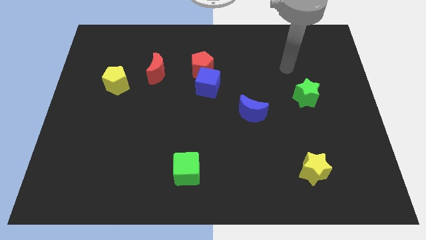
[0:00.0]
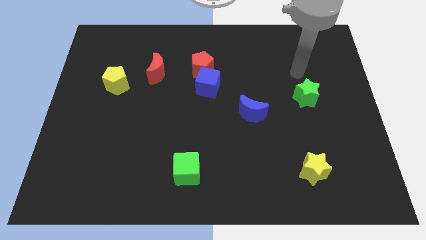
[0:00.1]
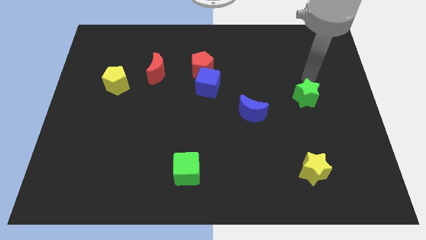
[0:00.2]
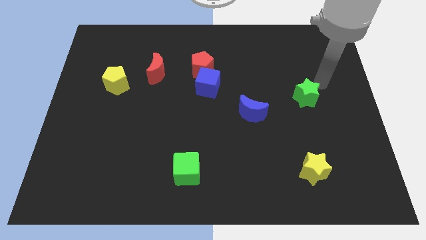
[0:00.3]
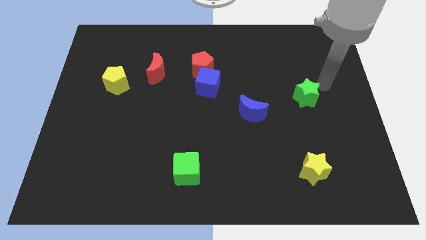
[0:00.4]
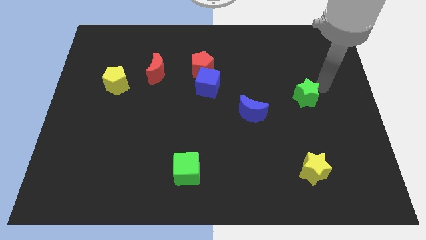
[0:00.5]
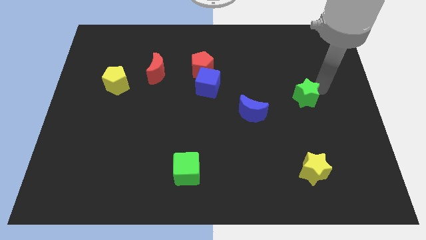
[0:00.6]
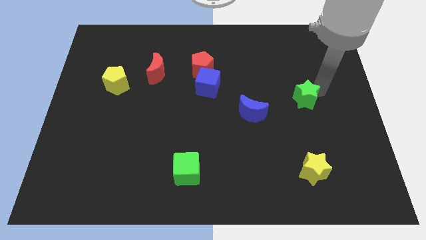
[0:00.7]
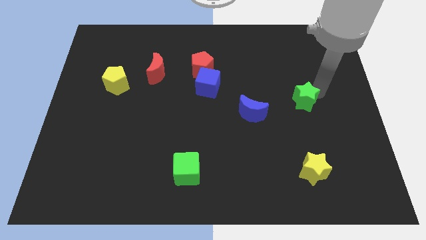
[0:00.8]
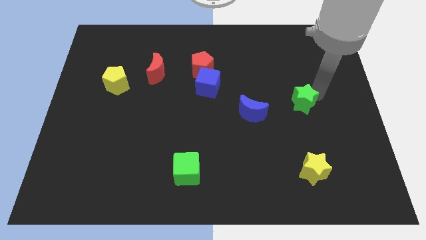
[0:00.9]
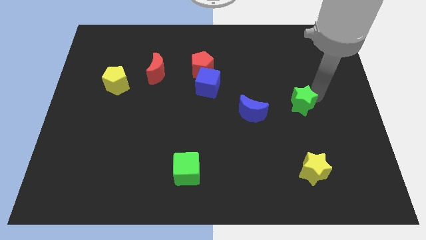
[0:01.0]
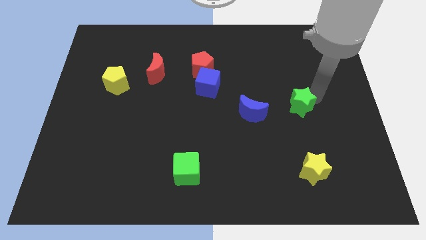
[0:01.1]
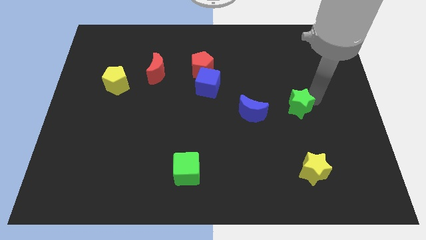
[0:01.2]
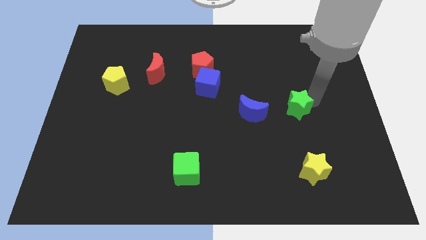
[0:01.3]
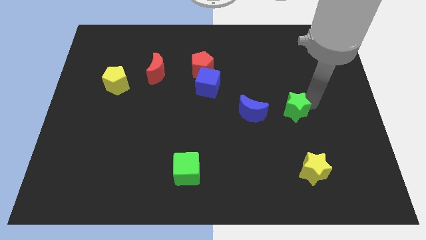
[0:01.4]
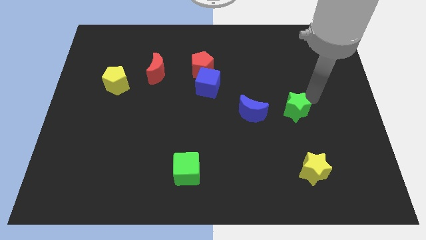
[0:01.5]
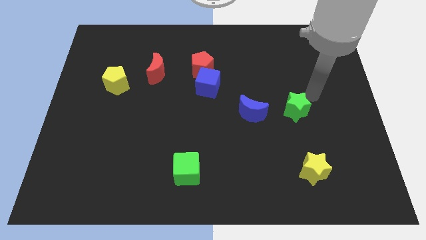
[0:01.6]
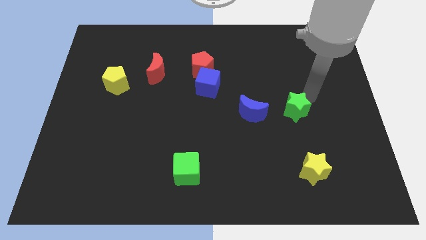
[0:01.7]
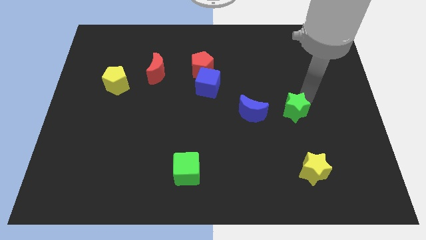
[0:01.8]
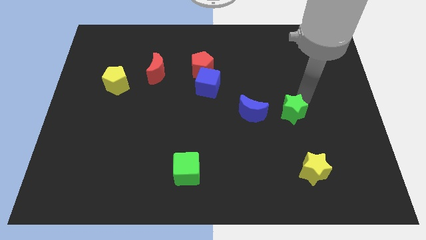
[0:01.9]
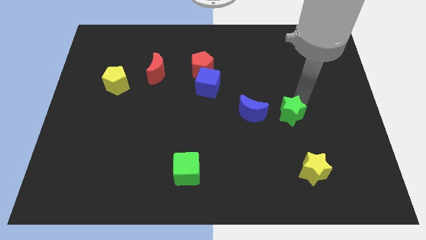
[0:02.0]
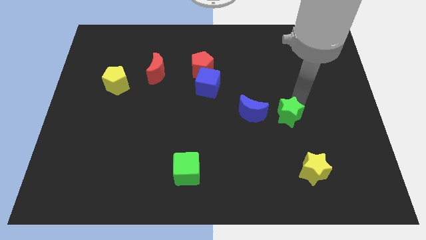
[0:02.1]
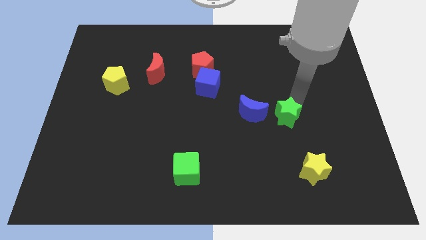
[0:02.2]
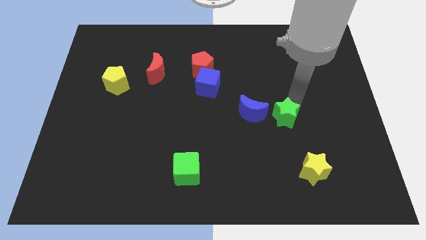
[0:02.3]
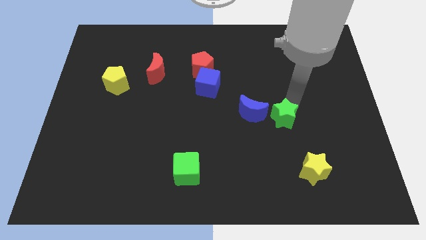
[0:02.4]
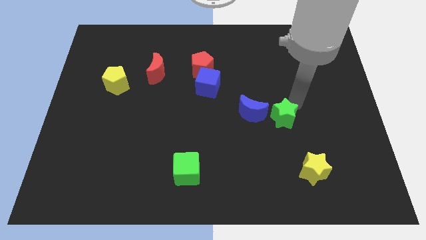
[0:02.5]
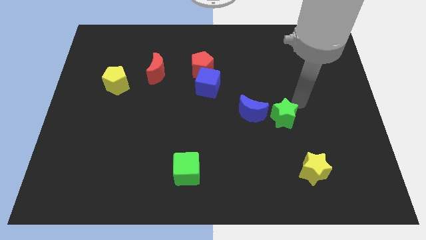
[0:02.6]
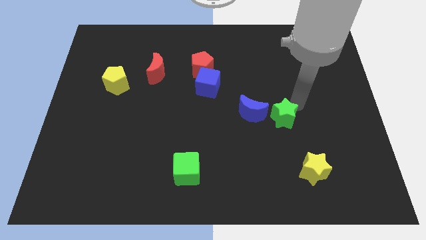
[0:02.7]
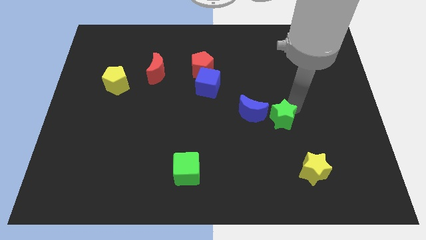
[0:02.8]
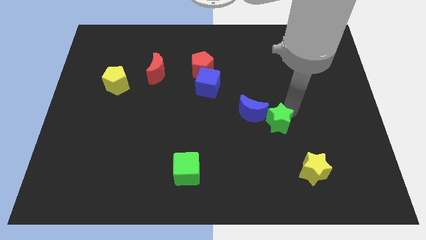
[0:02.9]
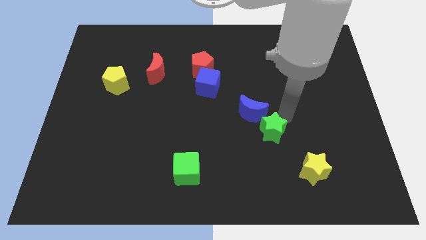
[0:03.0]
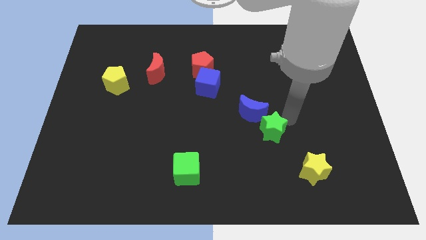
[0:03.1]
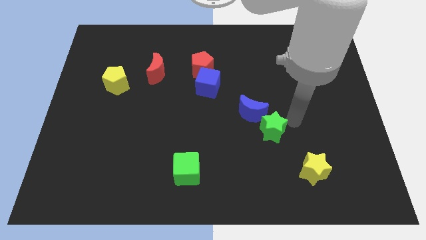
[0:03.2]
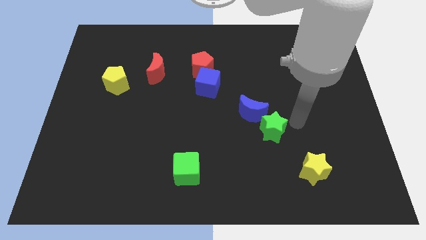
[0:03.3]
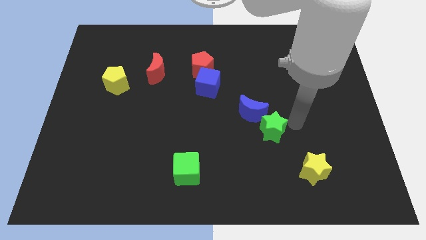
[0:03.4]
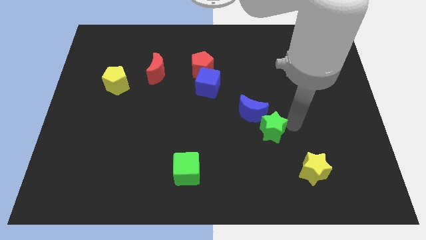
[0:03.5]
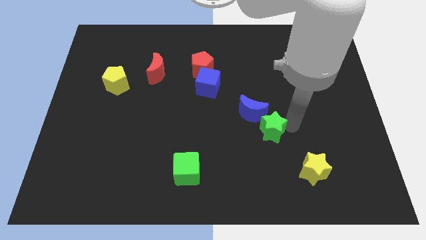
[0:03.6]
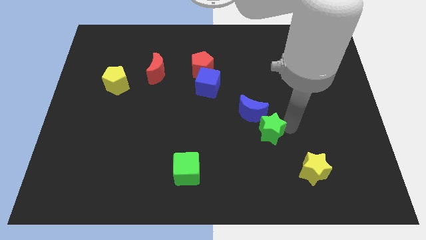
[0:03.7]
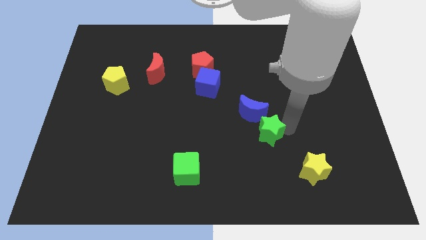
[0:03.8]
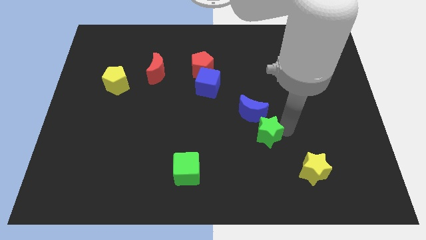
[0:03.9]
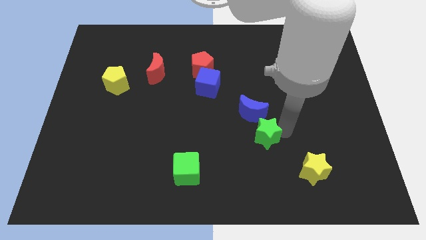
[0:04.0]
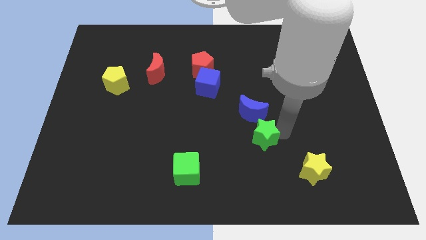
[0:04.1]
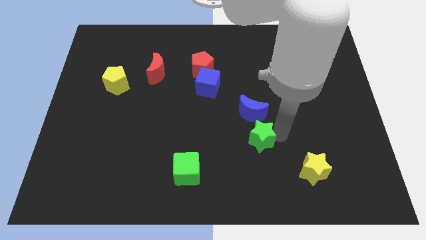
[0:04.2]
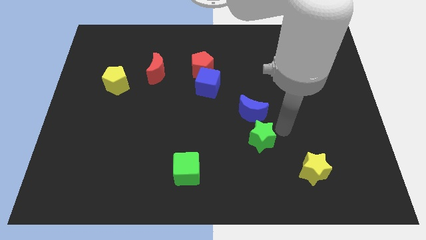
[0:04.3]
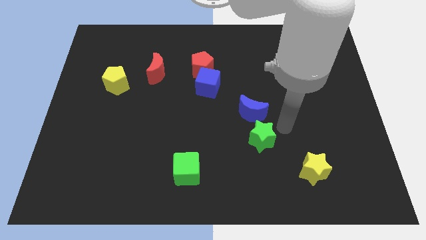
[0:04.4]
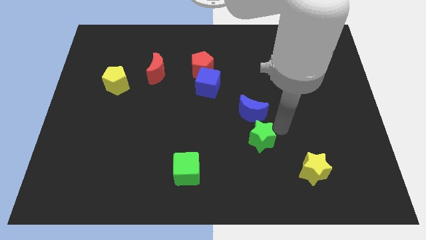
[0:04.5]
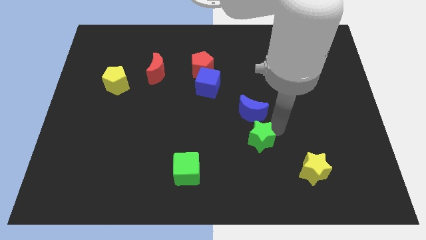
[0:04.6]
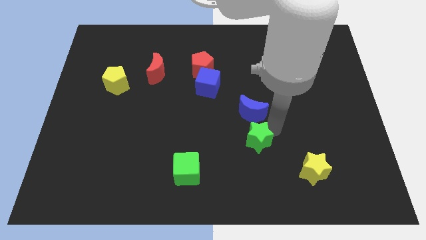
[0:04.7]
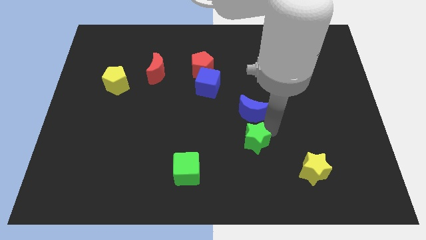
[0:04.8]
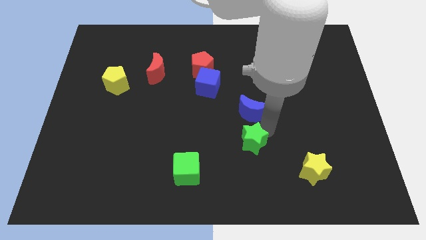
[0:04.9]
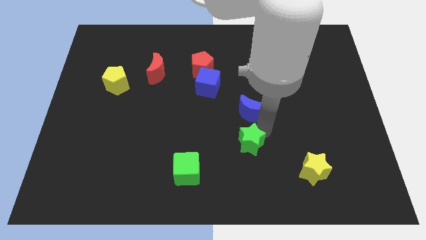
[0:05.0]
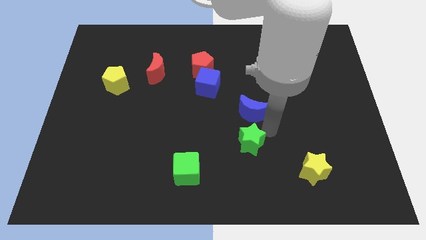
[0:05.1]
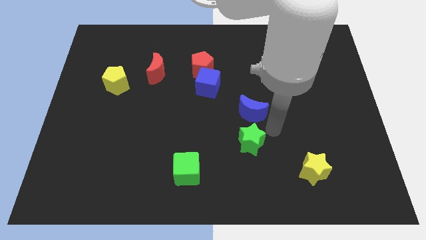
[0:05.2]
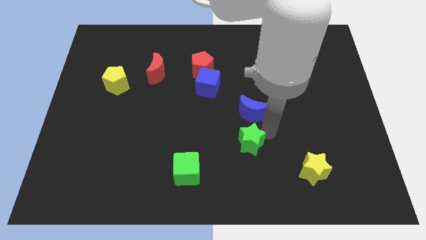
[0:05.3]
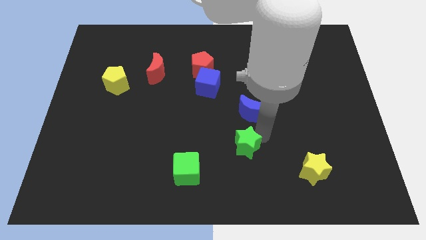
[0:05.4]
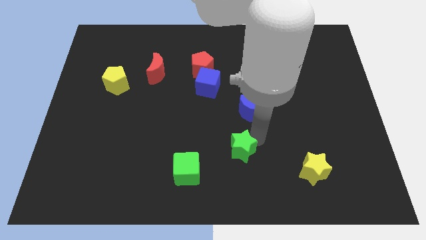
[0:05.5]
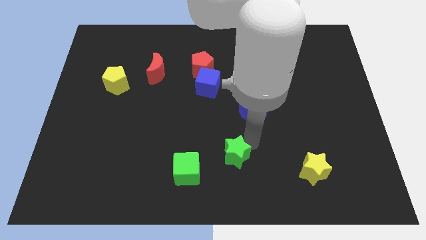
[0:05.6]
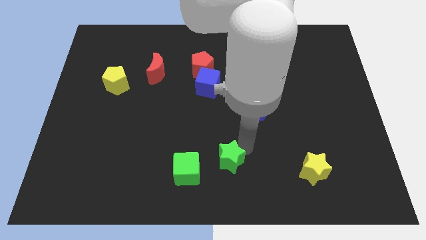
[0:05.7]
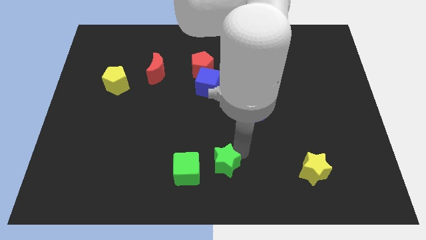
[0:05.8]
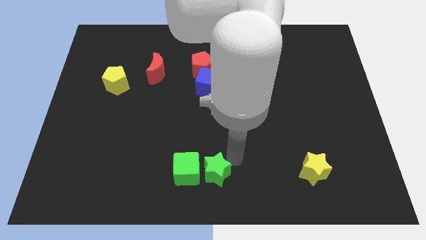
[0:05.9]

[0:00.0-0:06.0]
push the green star next to the green cube

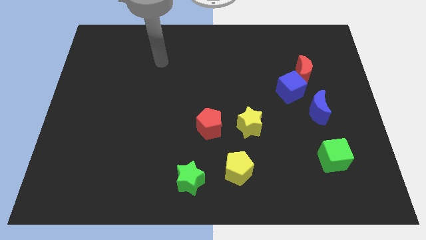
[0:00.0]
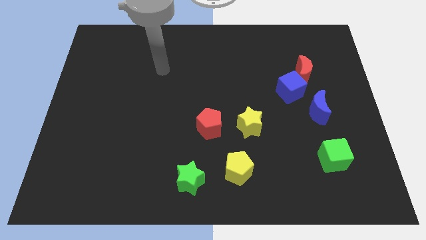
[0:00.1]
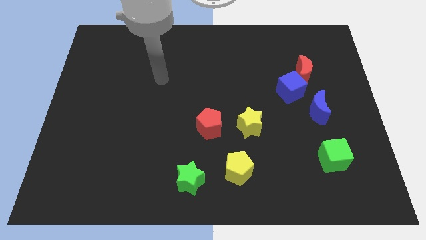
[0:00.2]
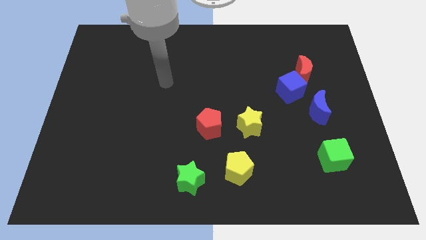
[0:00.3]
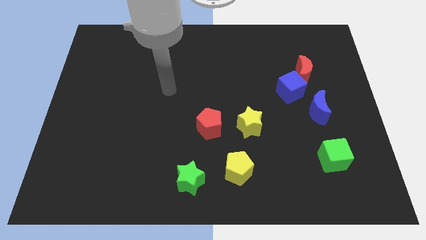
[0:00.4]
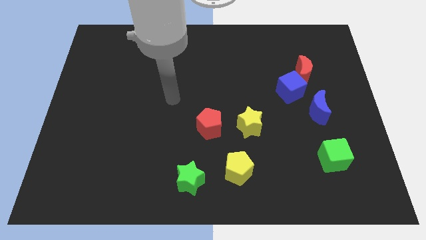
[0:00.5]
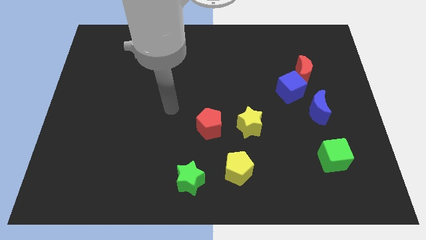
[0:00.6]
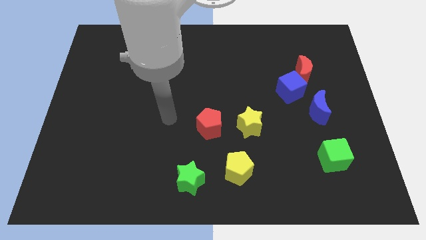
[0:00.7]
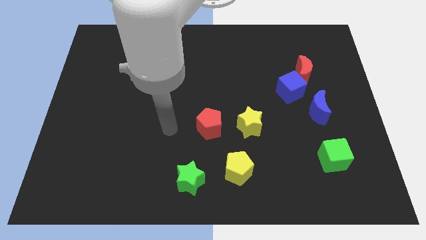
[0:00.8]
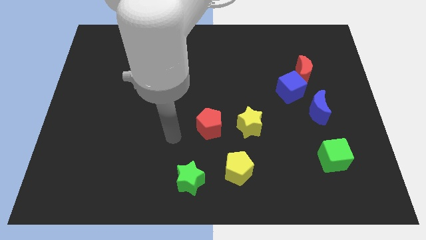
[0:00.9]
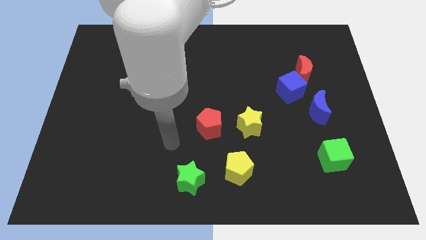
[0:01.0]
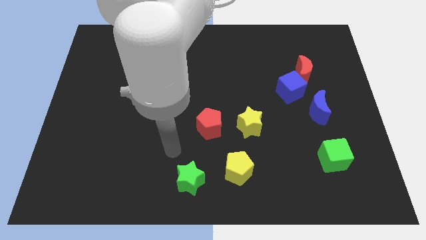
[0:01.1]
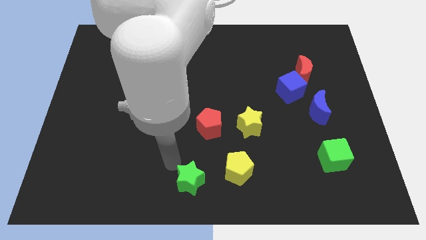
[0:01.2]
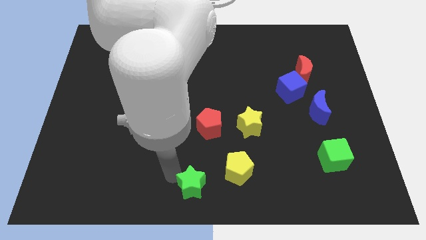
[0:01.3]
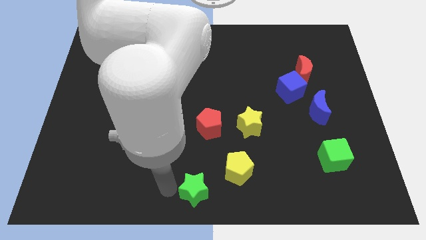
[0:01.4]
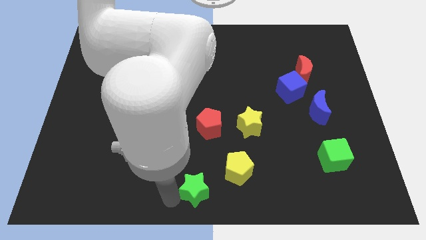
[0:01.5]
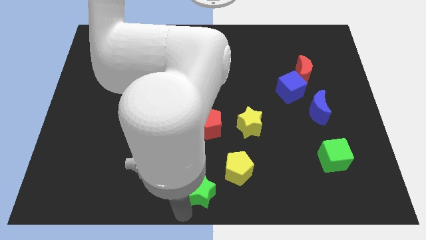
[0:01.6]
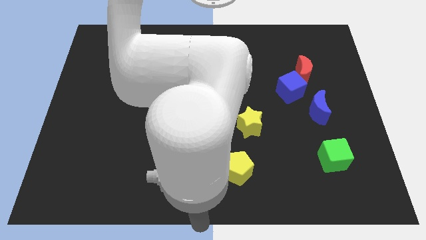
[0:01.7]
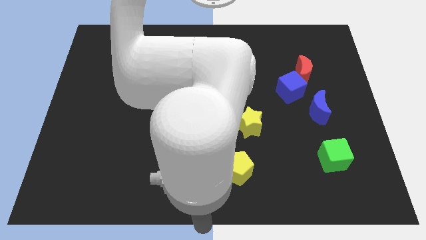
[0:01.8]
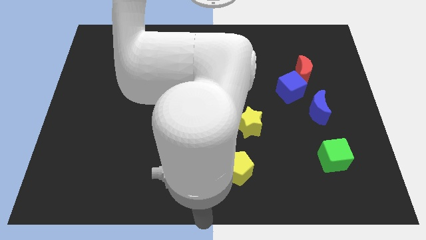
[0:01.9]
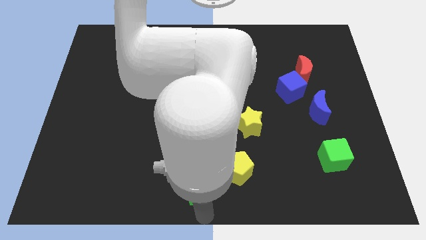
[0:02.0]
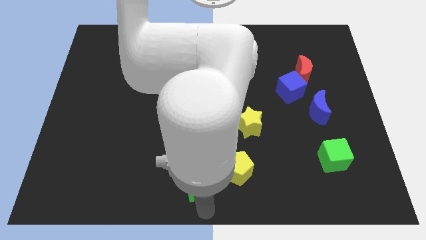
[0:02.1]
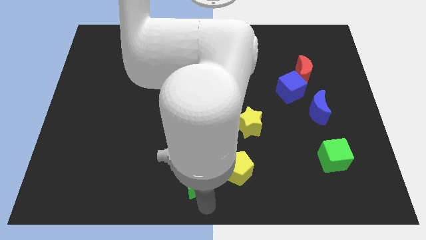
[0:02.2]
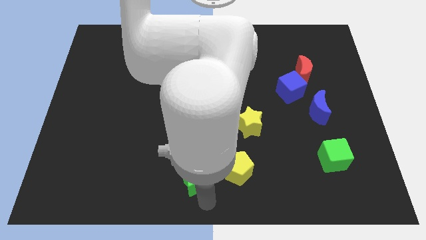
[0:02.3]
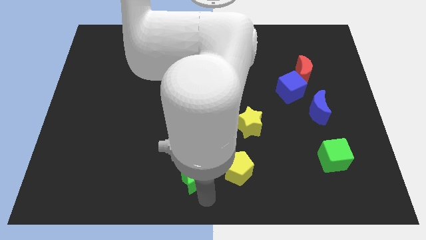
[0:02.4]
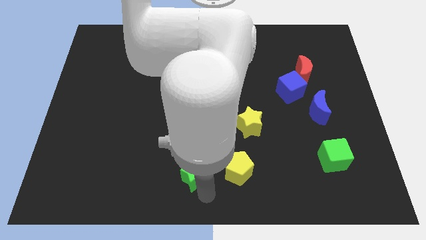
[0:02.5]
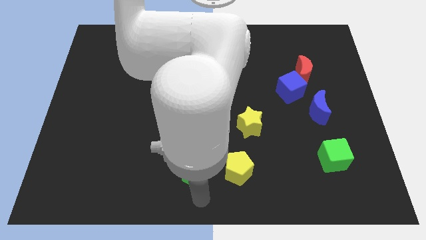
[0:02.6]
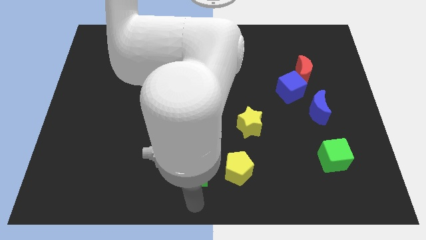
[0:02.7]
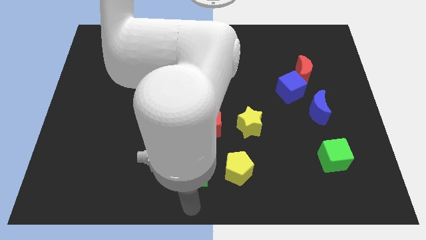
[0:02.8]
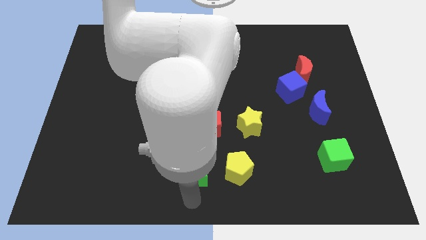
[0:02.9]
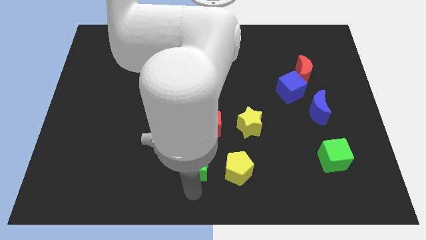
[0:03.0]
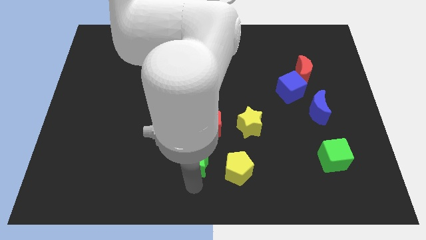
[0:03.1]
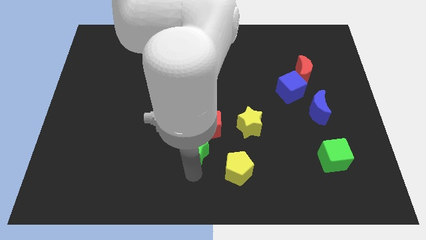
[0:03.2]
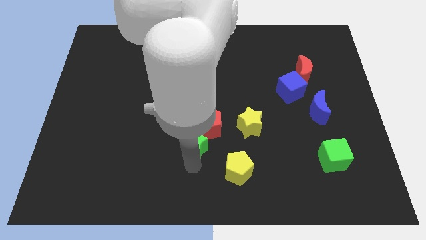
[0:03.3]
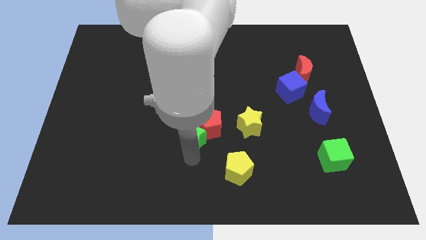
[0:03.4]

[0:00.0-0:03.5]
move the green star next to the red pentagon
